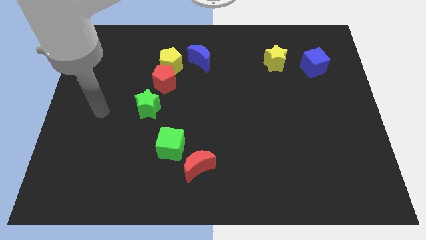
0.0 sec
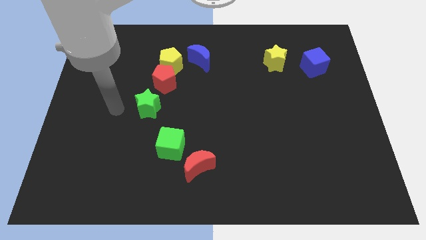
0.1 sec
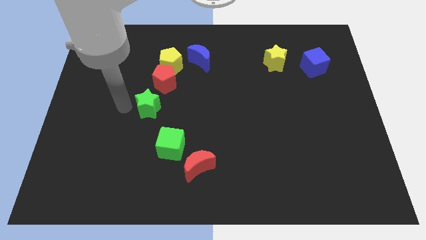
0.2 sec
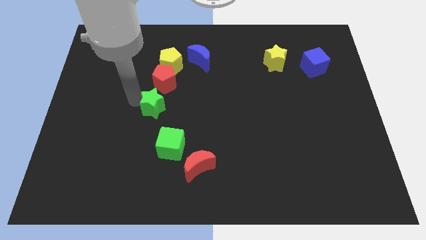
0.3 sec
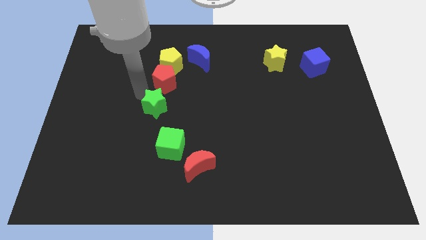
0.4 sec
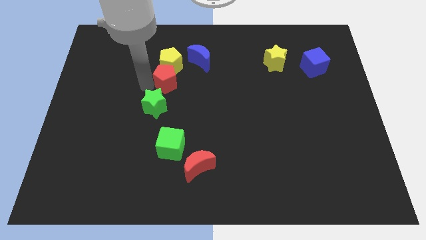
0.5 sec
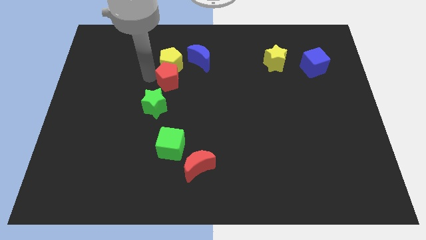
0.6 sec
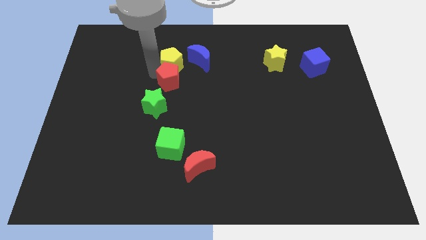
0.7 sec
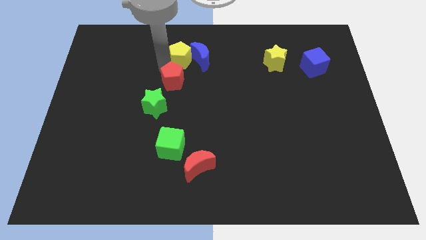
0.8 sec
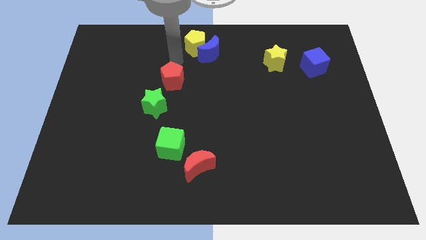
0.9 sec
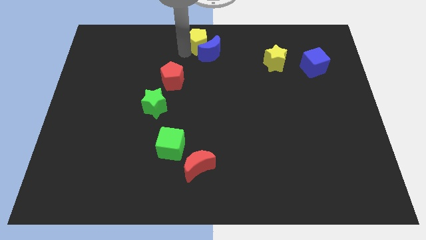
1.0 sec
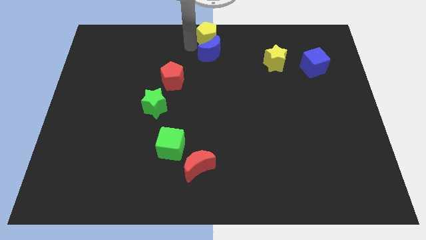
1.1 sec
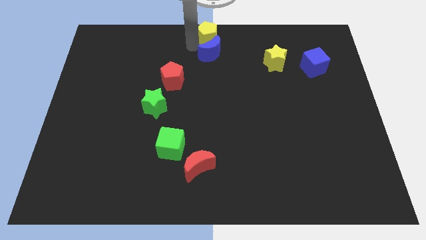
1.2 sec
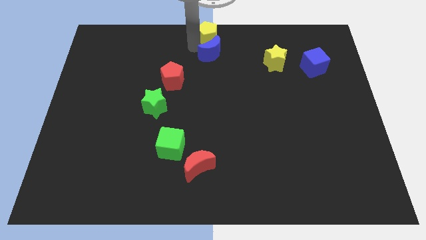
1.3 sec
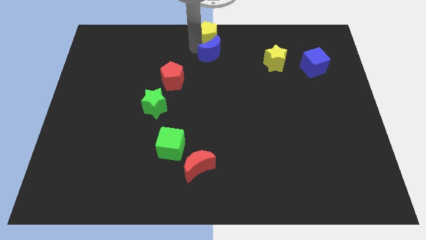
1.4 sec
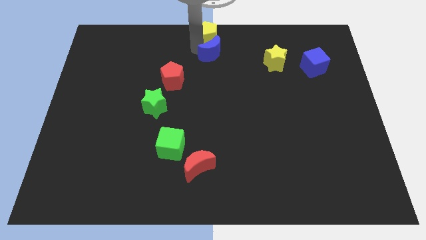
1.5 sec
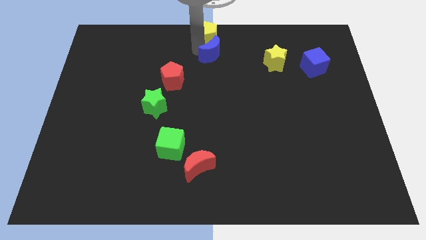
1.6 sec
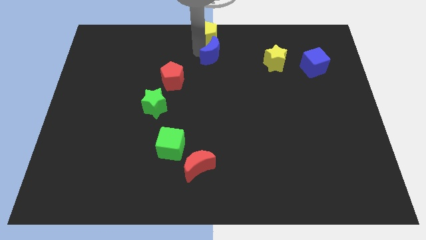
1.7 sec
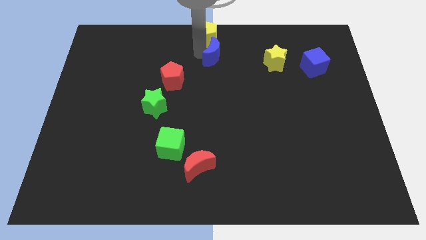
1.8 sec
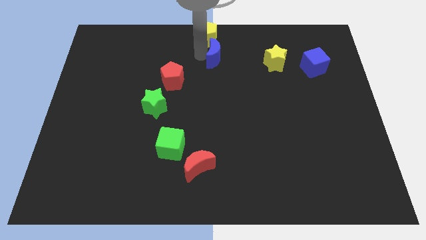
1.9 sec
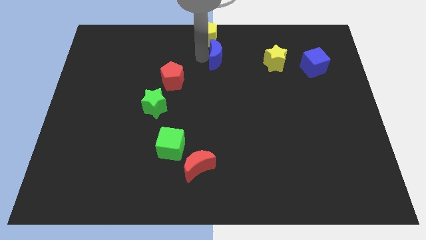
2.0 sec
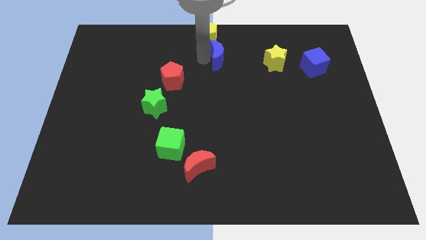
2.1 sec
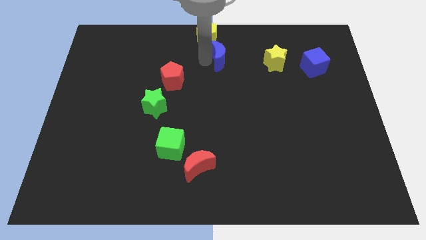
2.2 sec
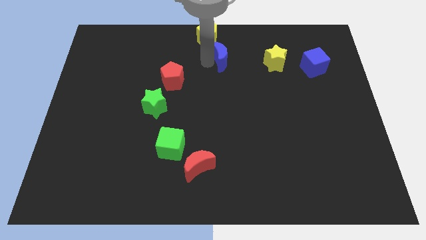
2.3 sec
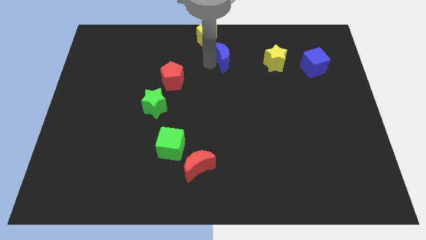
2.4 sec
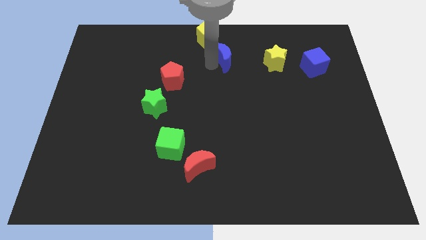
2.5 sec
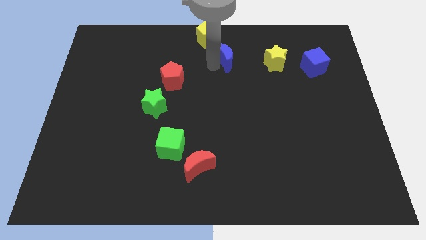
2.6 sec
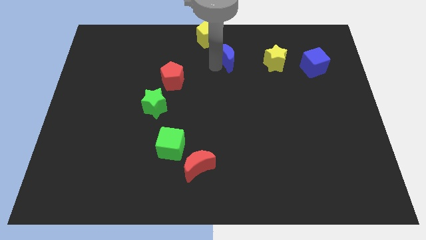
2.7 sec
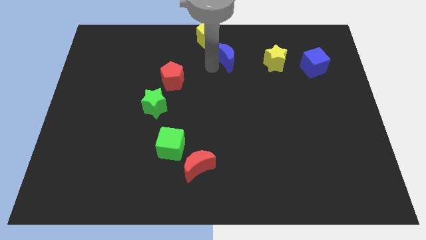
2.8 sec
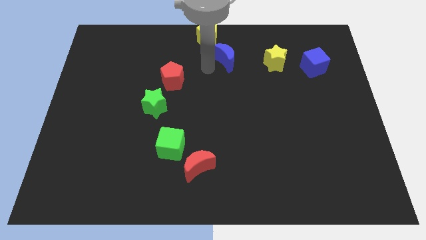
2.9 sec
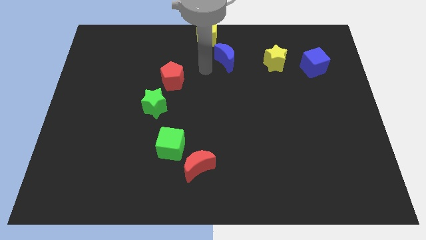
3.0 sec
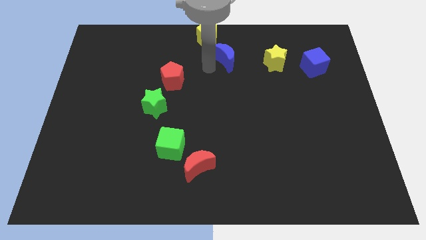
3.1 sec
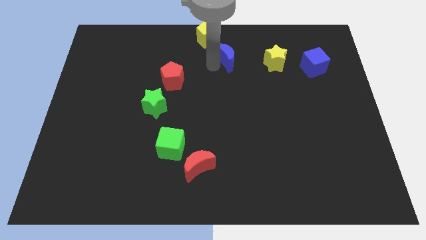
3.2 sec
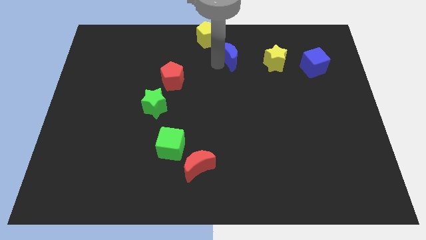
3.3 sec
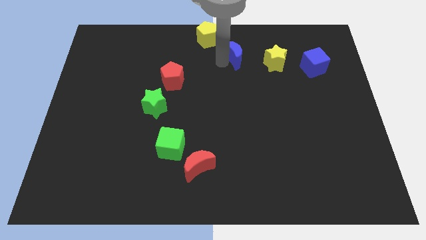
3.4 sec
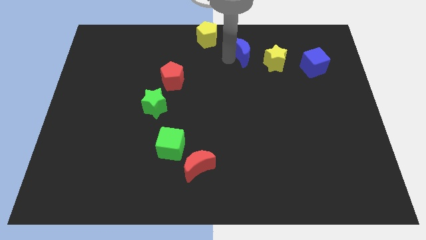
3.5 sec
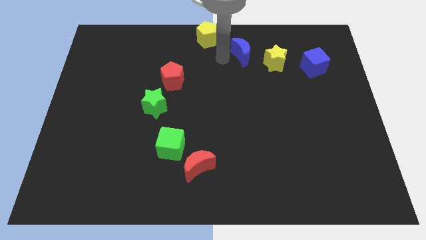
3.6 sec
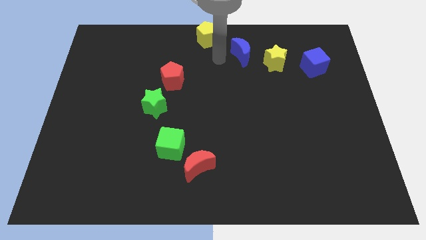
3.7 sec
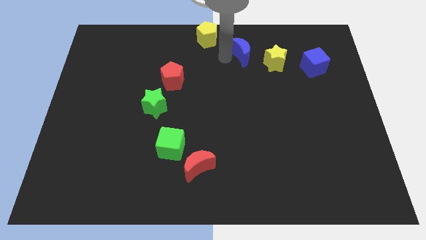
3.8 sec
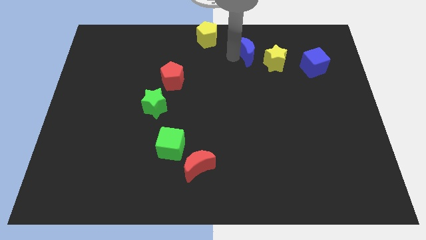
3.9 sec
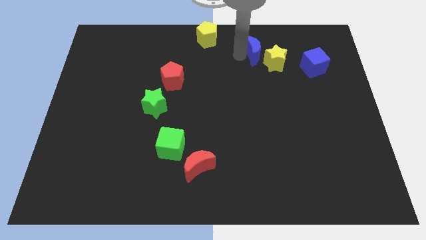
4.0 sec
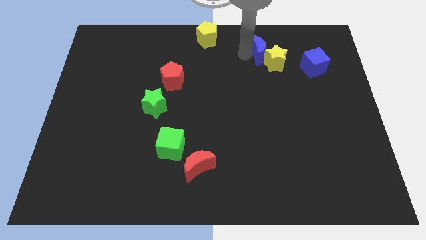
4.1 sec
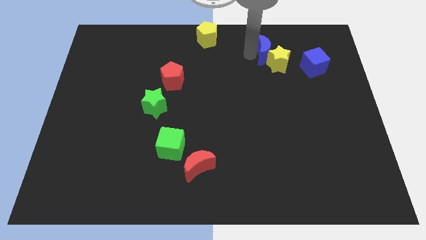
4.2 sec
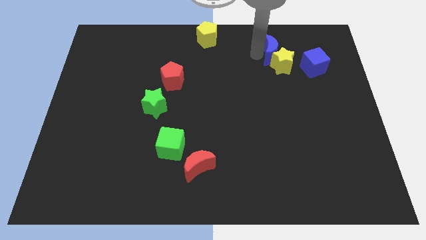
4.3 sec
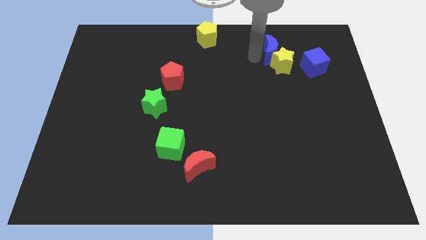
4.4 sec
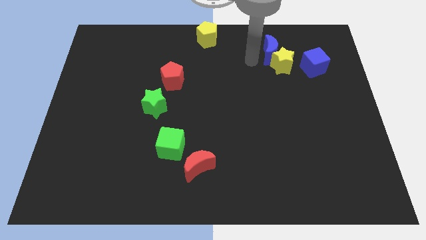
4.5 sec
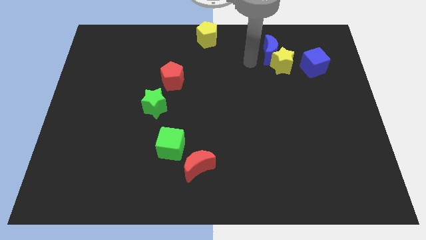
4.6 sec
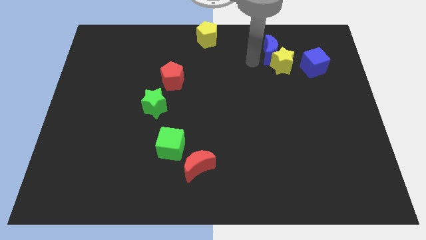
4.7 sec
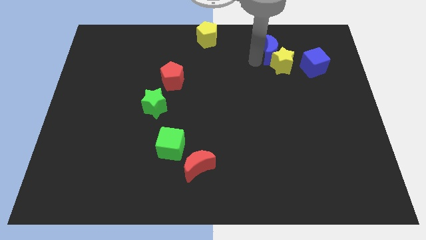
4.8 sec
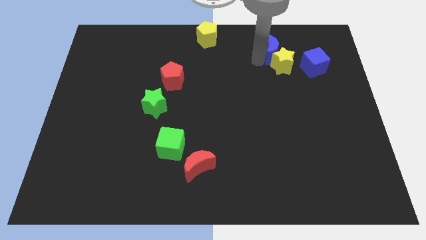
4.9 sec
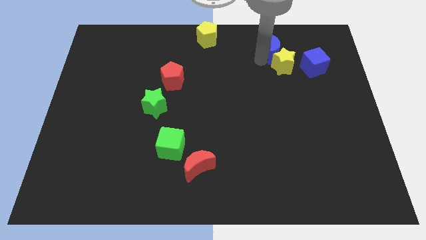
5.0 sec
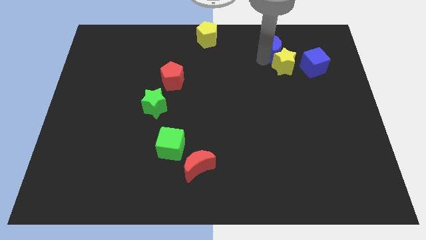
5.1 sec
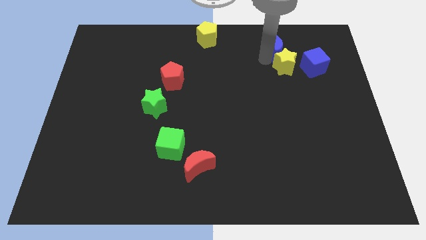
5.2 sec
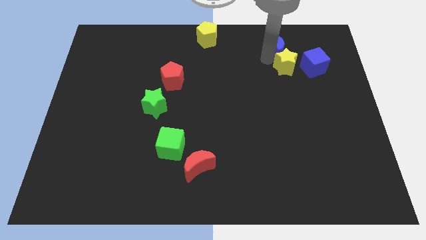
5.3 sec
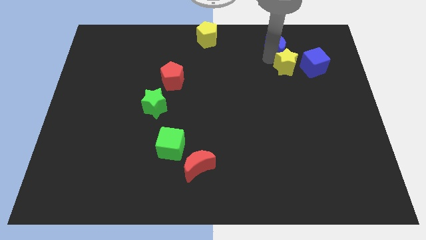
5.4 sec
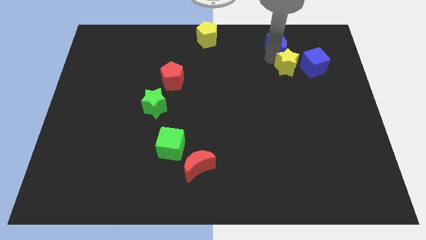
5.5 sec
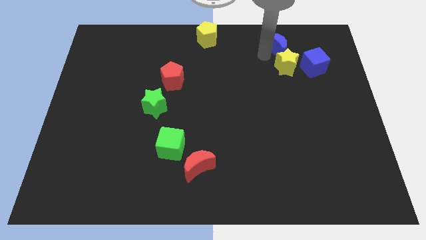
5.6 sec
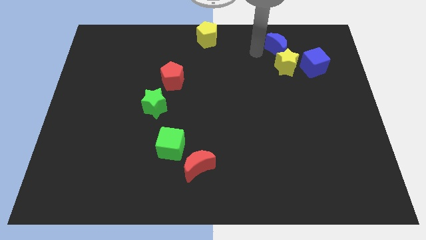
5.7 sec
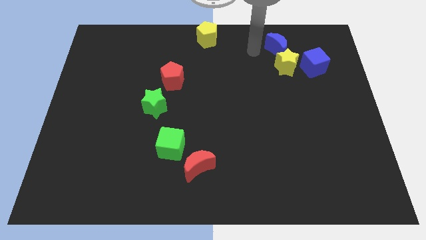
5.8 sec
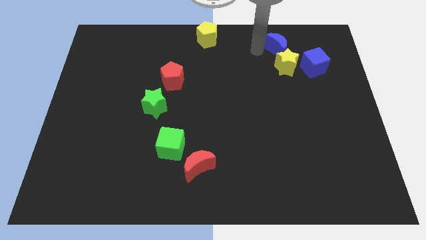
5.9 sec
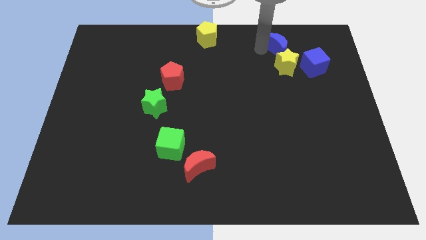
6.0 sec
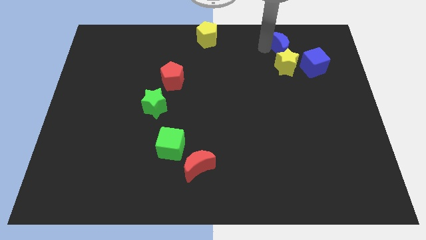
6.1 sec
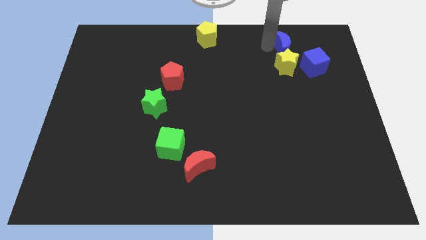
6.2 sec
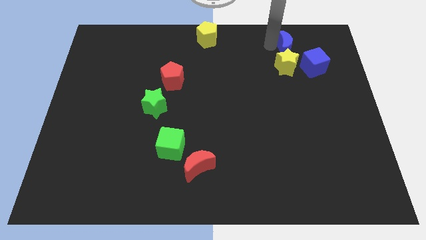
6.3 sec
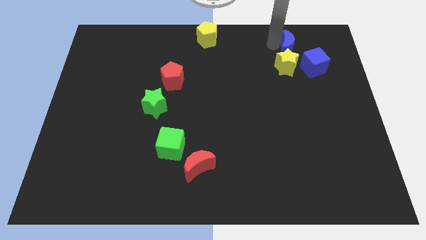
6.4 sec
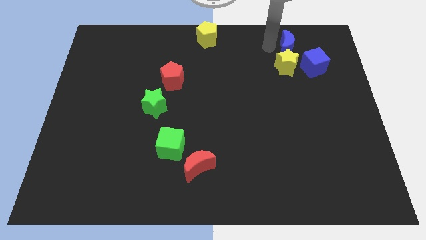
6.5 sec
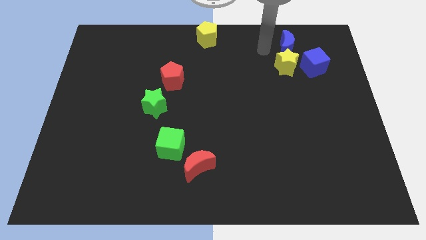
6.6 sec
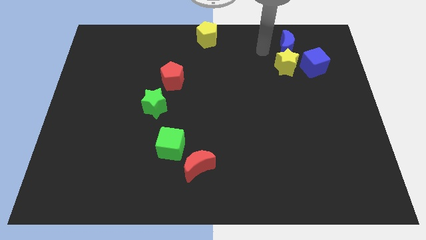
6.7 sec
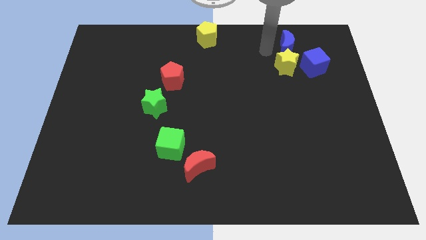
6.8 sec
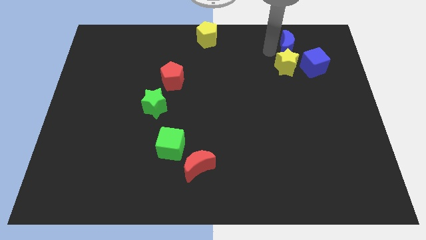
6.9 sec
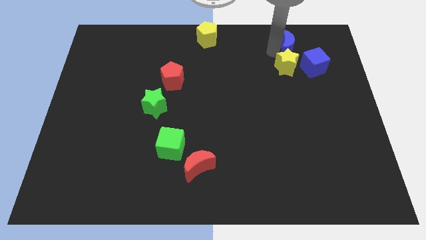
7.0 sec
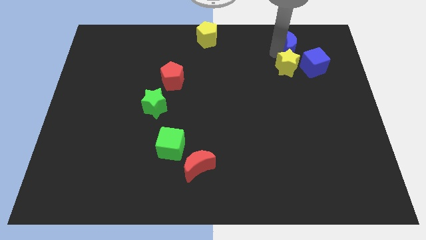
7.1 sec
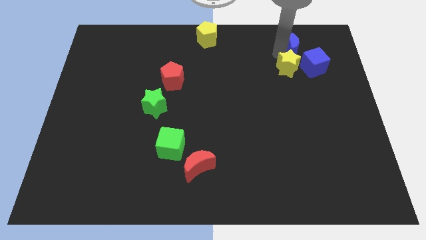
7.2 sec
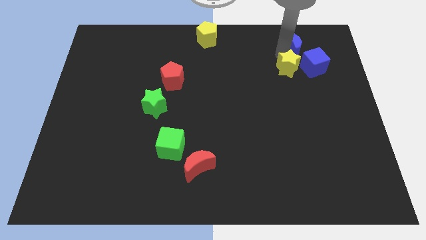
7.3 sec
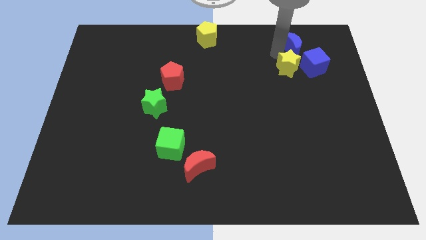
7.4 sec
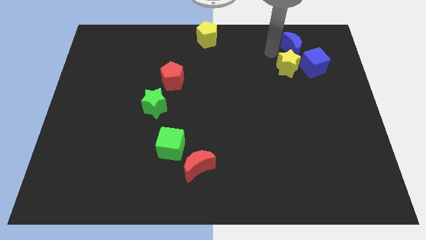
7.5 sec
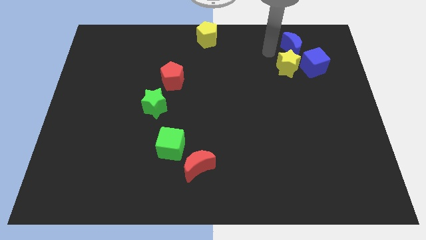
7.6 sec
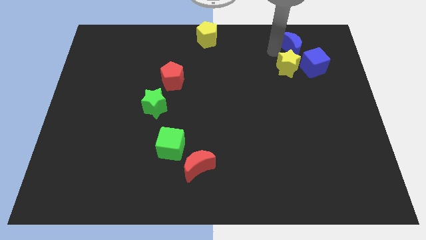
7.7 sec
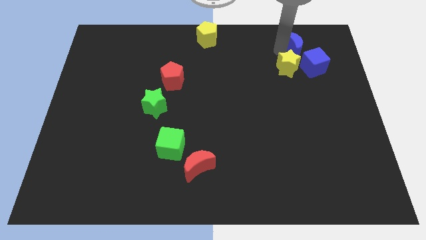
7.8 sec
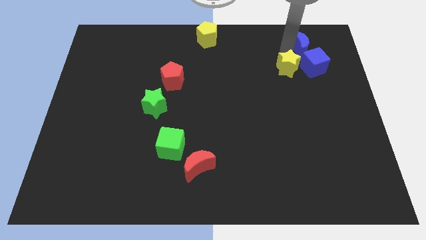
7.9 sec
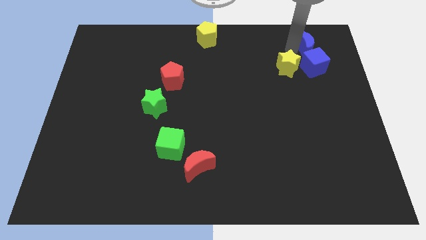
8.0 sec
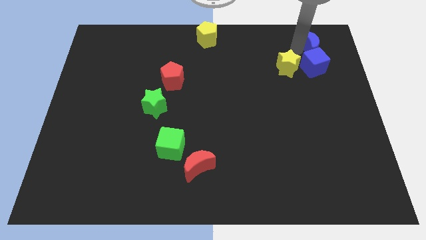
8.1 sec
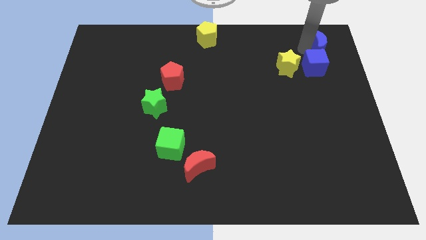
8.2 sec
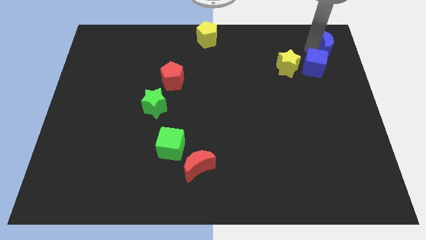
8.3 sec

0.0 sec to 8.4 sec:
push the blue moon to the upper right corner
